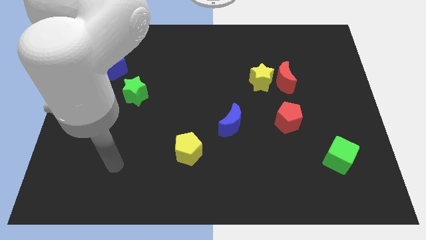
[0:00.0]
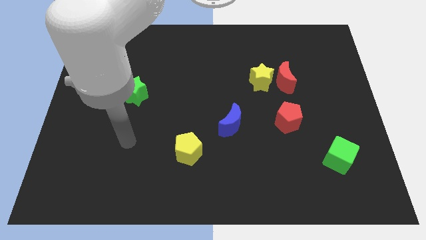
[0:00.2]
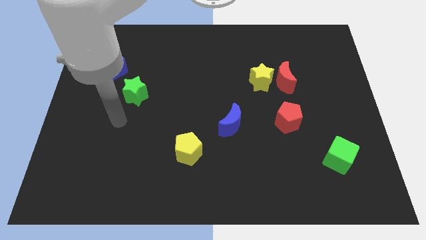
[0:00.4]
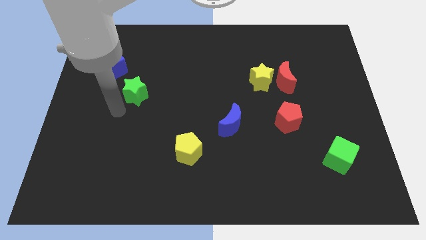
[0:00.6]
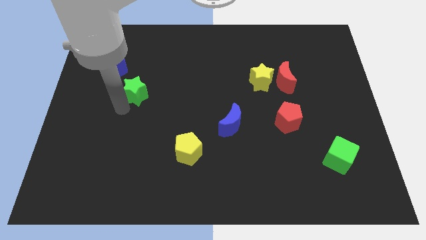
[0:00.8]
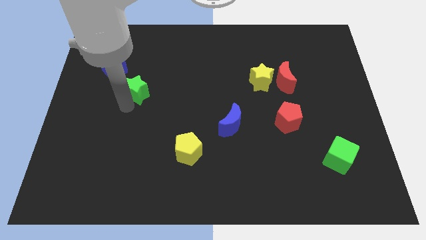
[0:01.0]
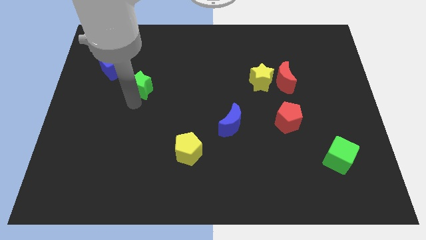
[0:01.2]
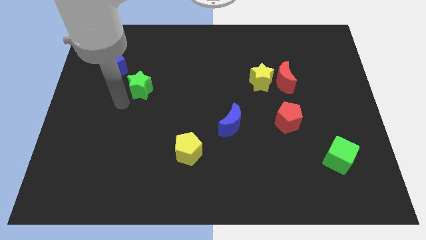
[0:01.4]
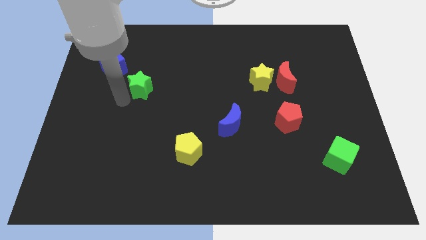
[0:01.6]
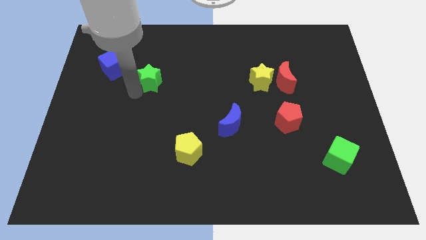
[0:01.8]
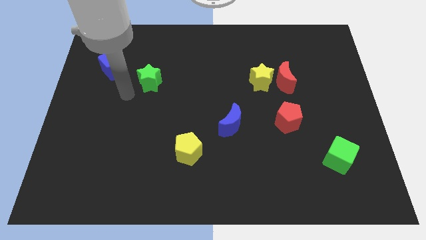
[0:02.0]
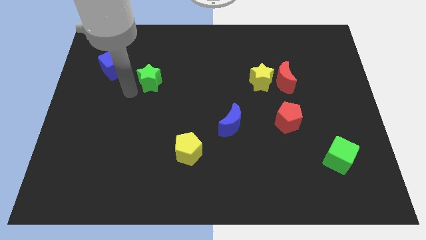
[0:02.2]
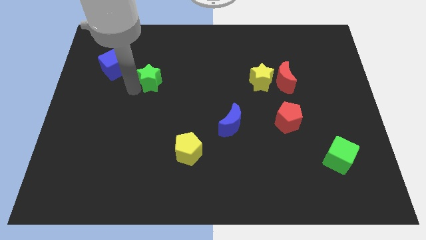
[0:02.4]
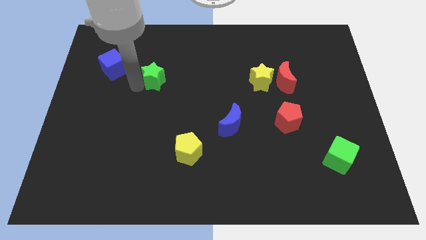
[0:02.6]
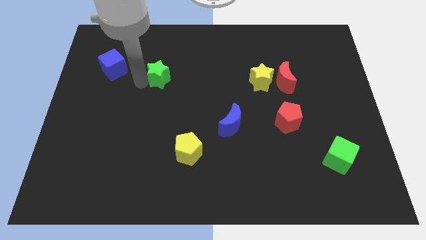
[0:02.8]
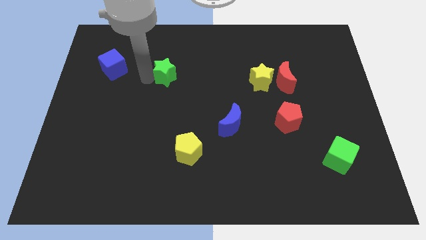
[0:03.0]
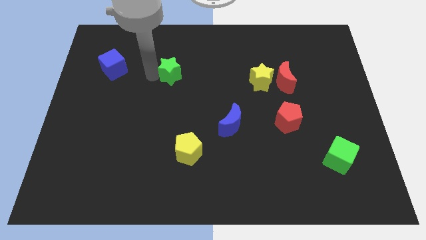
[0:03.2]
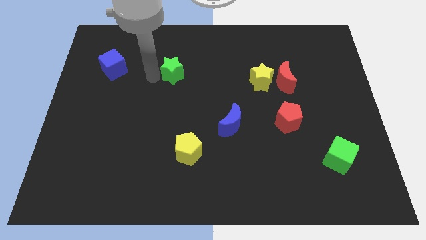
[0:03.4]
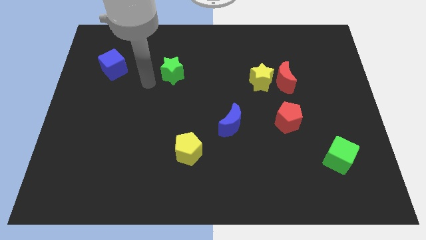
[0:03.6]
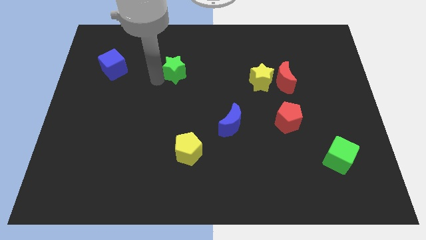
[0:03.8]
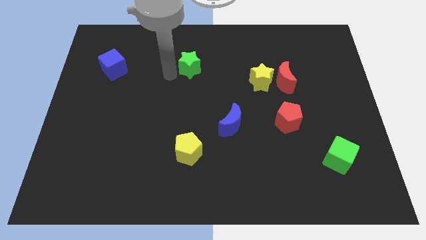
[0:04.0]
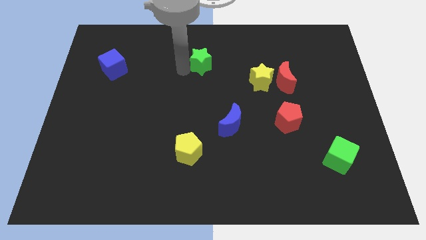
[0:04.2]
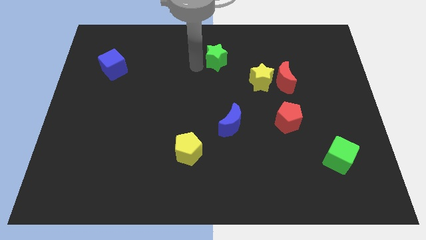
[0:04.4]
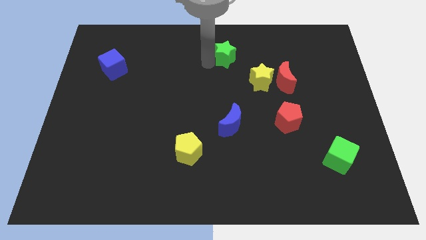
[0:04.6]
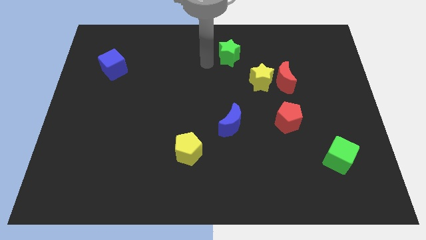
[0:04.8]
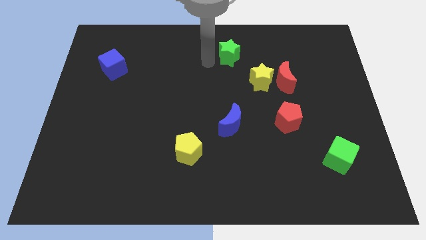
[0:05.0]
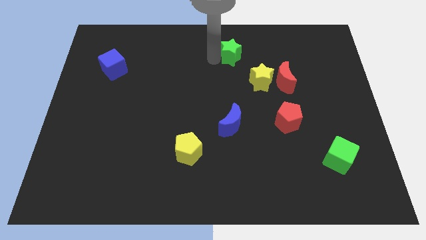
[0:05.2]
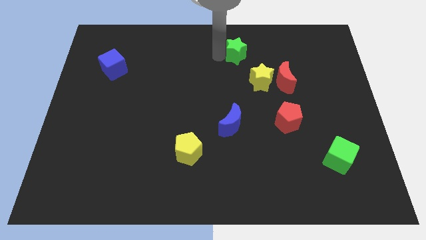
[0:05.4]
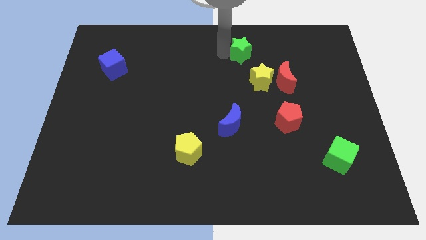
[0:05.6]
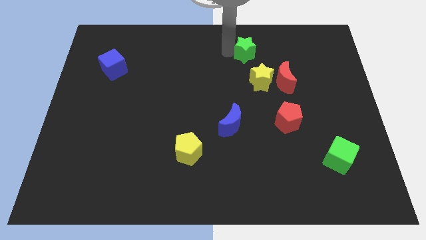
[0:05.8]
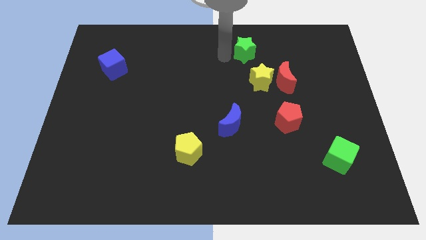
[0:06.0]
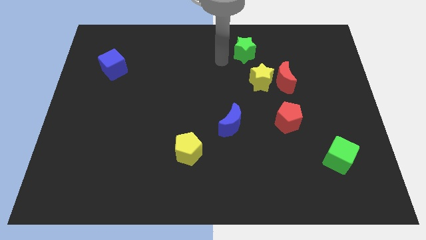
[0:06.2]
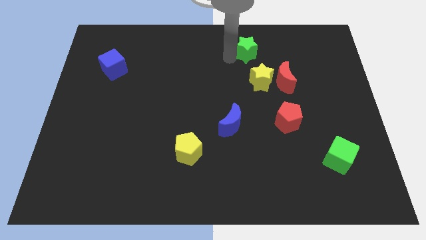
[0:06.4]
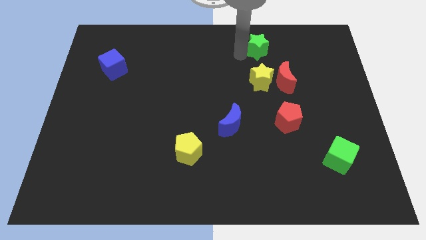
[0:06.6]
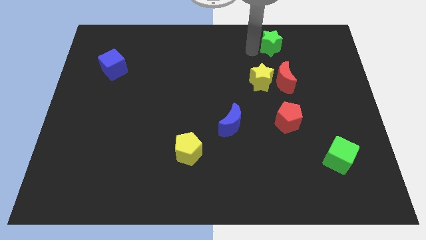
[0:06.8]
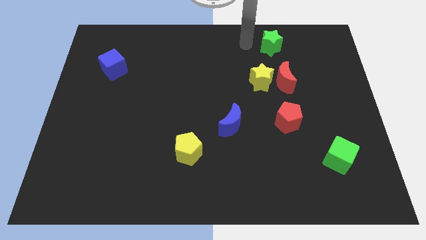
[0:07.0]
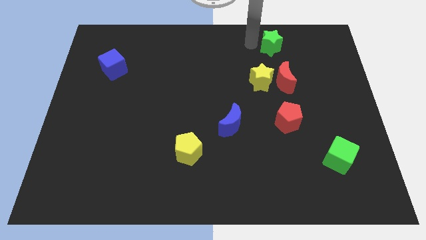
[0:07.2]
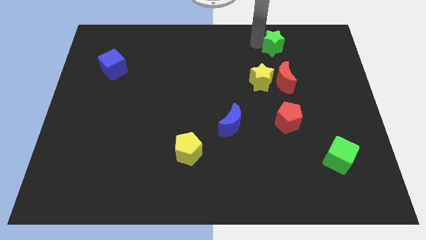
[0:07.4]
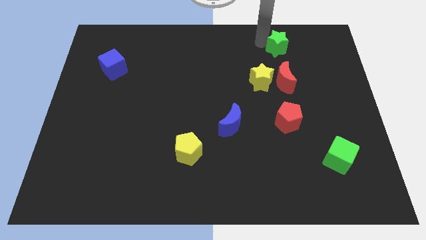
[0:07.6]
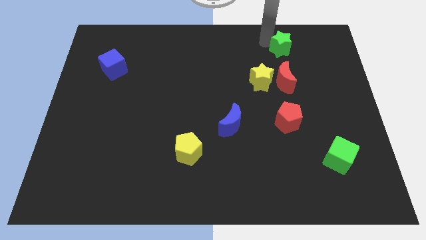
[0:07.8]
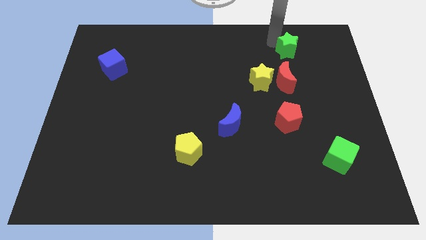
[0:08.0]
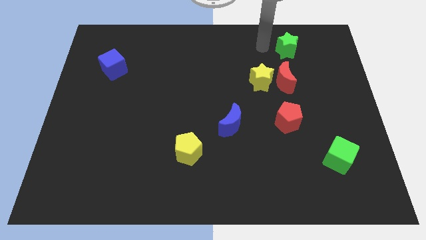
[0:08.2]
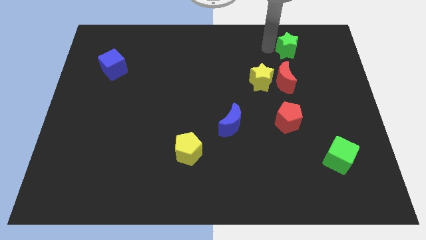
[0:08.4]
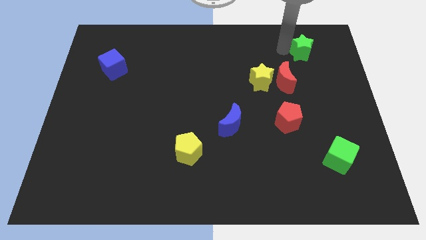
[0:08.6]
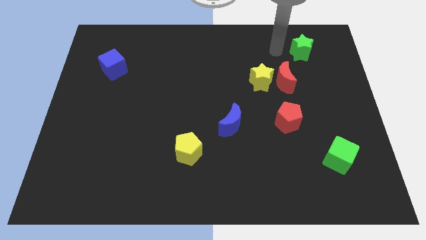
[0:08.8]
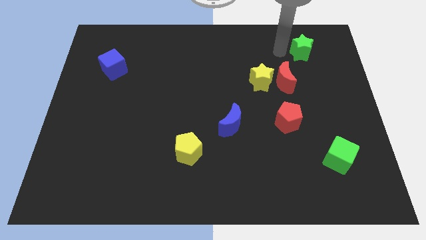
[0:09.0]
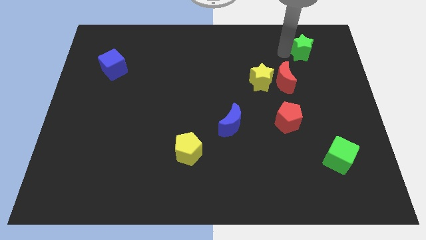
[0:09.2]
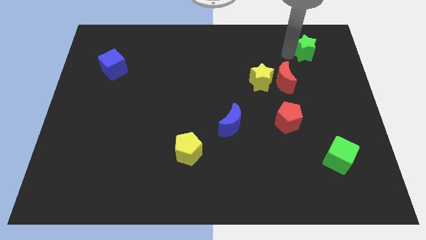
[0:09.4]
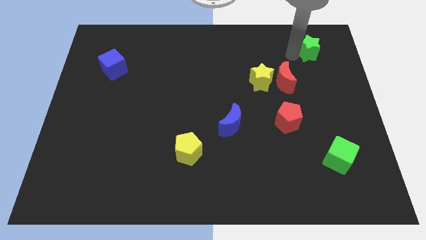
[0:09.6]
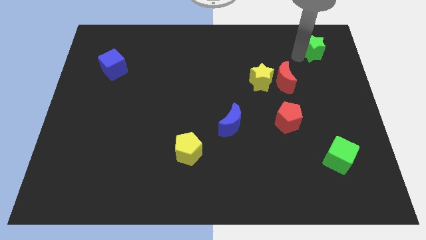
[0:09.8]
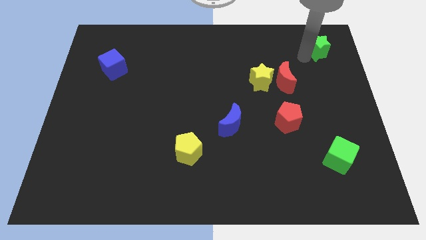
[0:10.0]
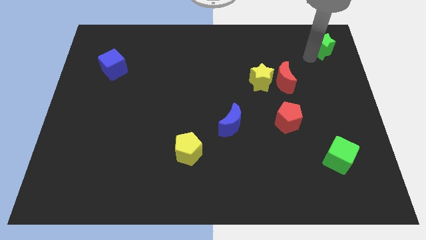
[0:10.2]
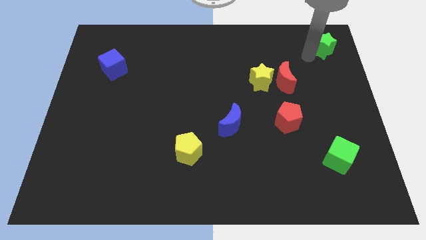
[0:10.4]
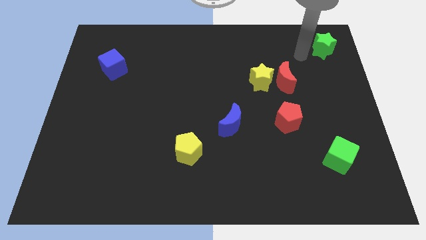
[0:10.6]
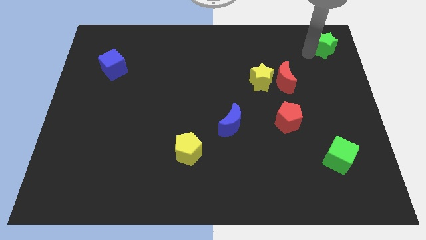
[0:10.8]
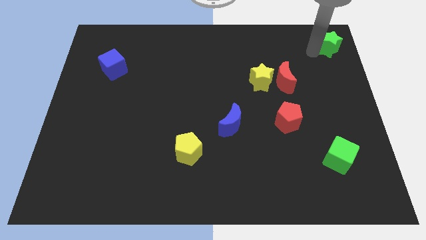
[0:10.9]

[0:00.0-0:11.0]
slide the green star to the top right corner

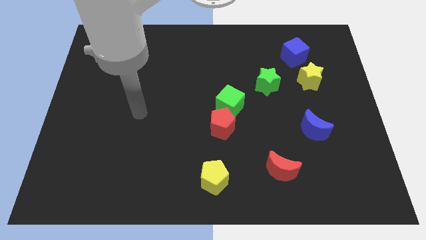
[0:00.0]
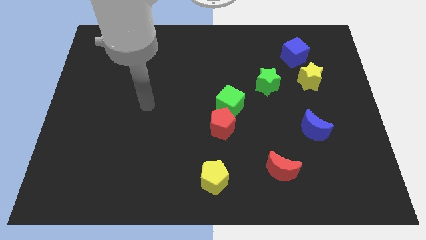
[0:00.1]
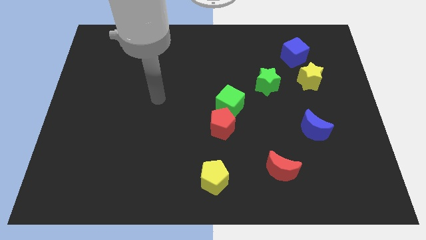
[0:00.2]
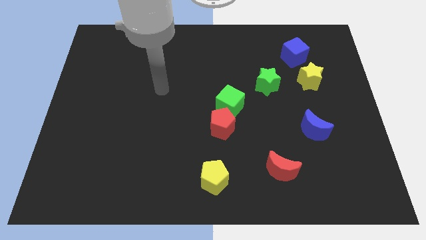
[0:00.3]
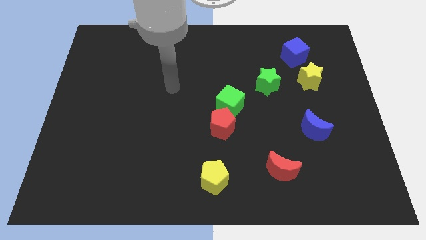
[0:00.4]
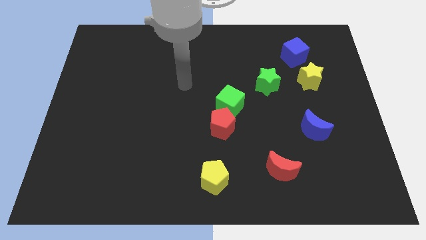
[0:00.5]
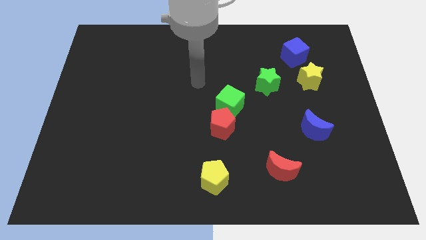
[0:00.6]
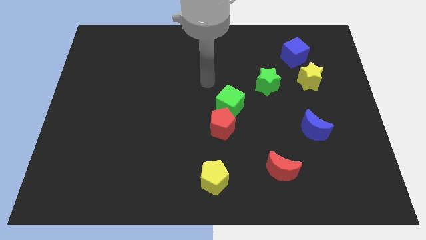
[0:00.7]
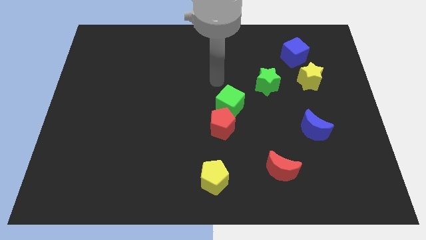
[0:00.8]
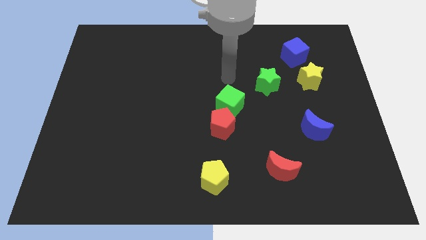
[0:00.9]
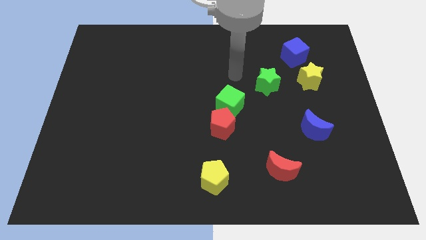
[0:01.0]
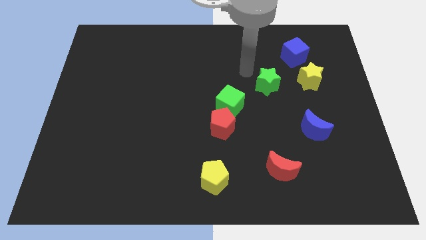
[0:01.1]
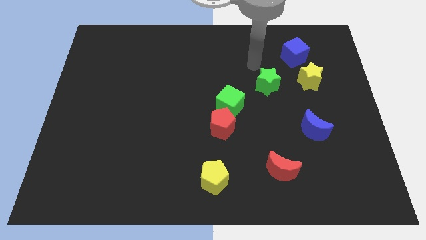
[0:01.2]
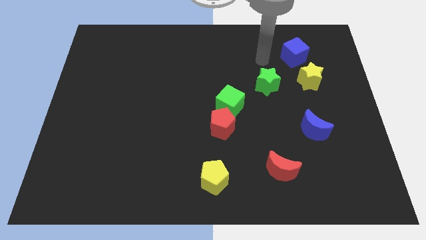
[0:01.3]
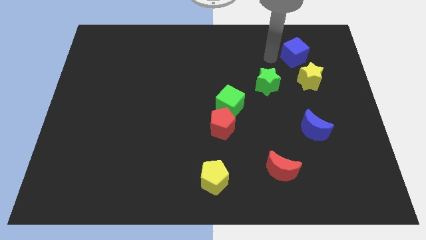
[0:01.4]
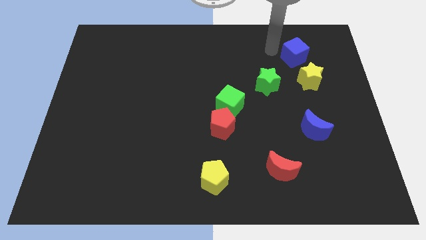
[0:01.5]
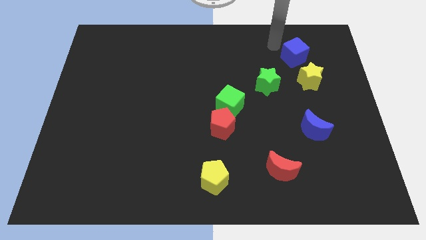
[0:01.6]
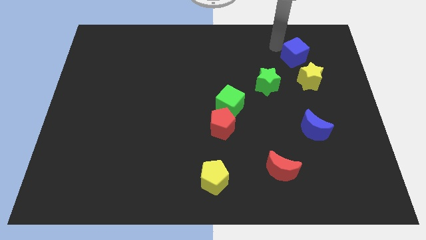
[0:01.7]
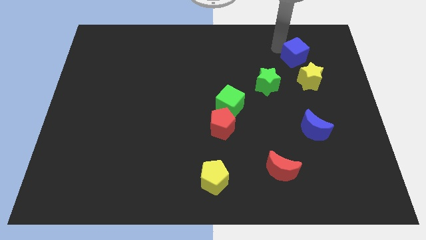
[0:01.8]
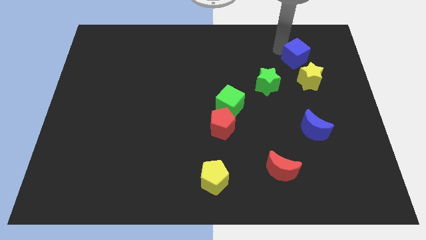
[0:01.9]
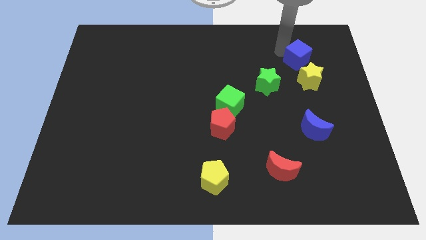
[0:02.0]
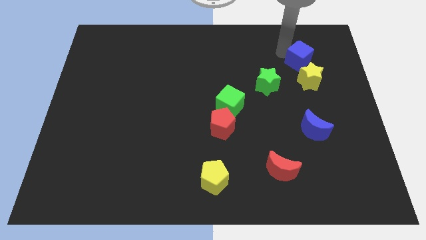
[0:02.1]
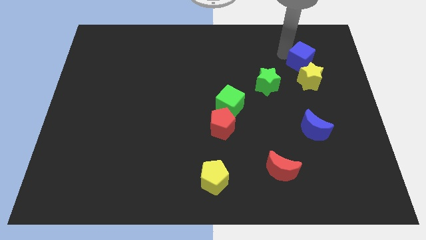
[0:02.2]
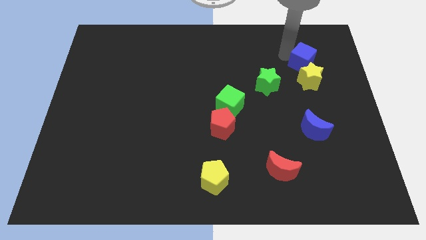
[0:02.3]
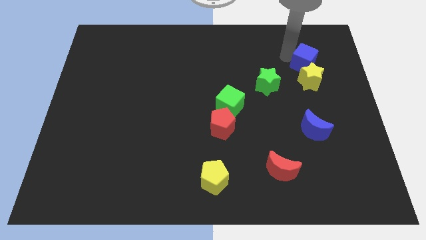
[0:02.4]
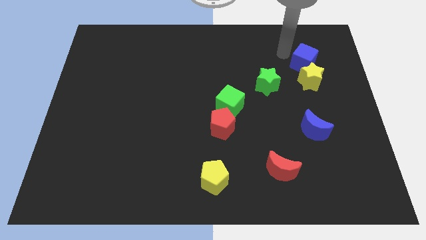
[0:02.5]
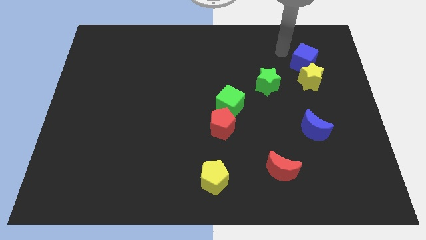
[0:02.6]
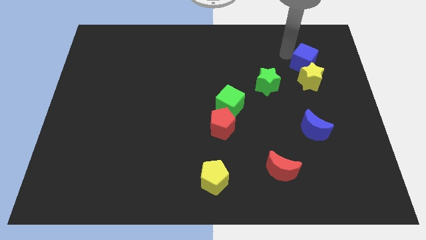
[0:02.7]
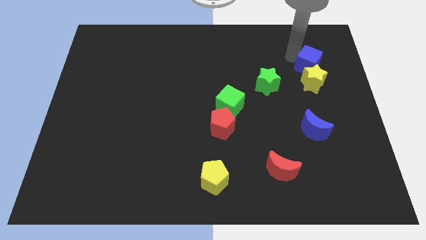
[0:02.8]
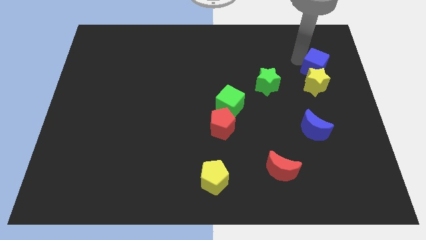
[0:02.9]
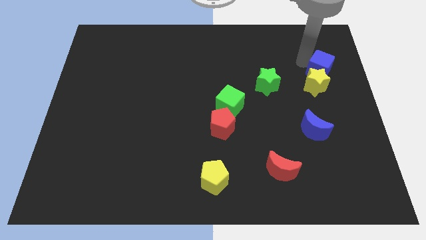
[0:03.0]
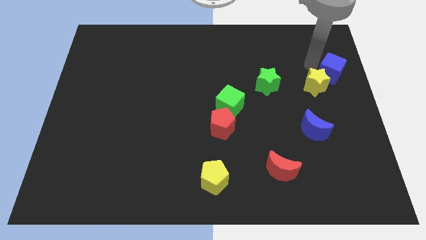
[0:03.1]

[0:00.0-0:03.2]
slide the blue cube to the right side
